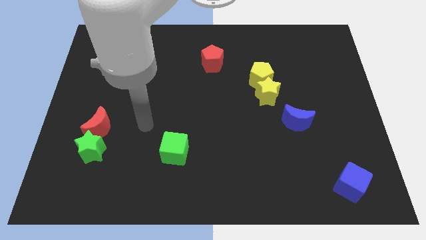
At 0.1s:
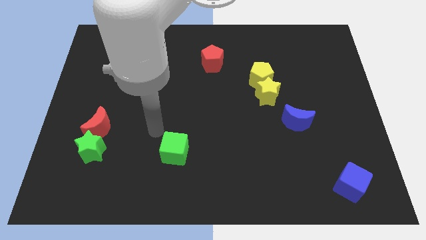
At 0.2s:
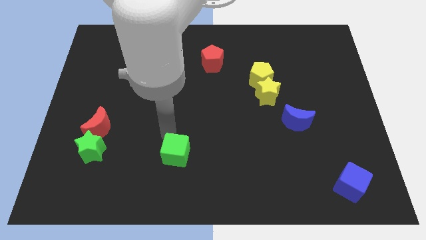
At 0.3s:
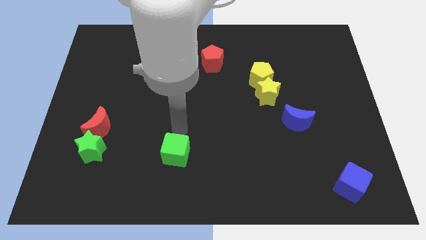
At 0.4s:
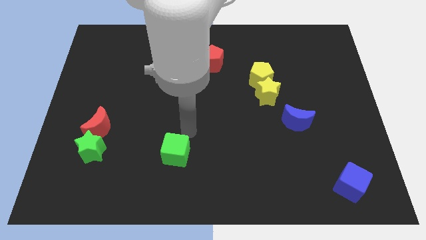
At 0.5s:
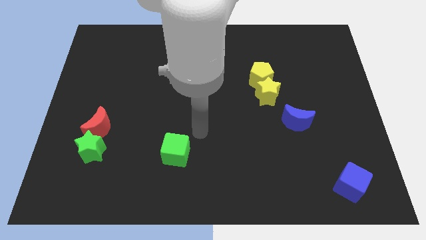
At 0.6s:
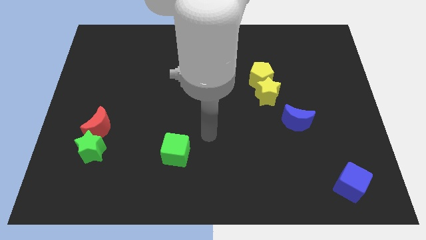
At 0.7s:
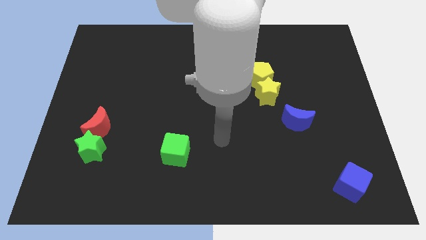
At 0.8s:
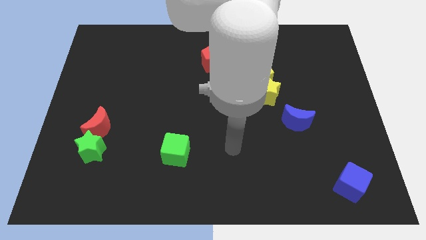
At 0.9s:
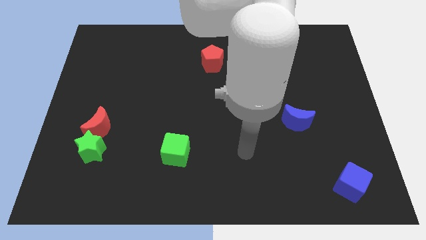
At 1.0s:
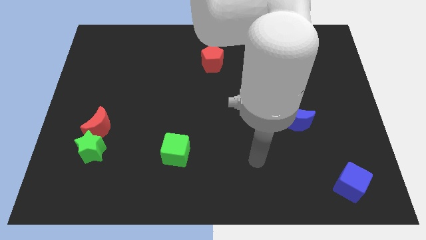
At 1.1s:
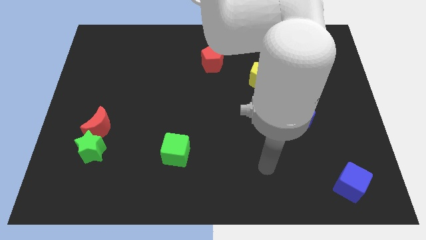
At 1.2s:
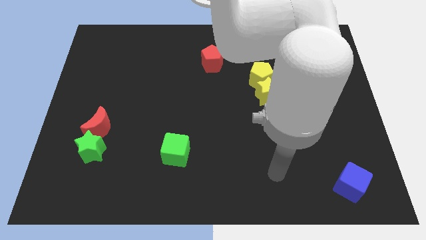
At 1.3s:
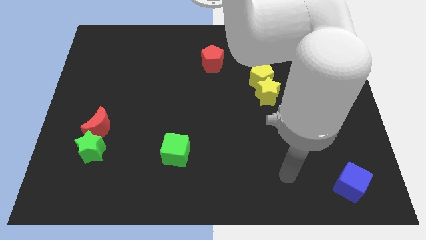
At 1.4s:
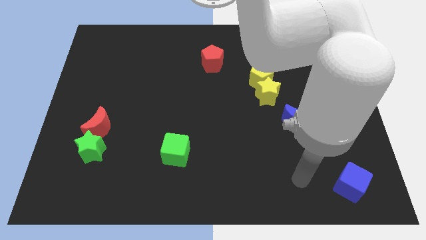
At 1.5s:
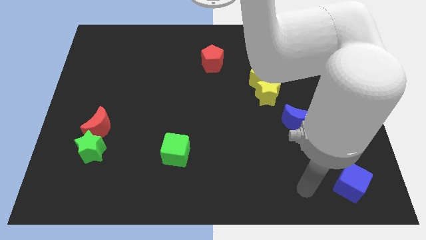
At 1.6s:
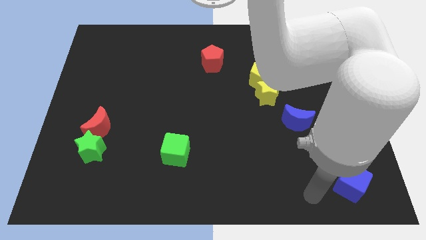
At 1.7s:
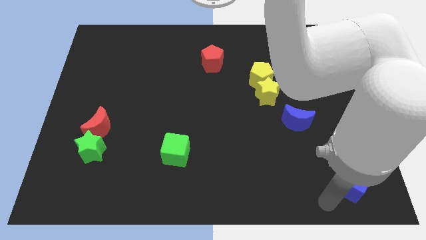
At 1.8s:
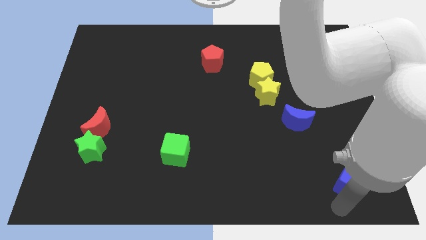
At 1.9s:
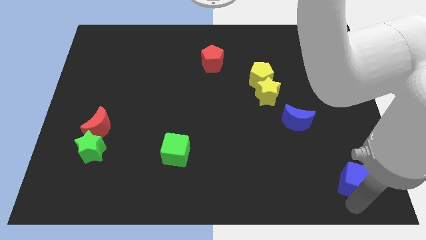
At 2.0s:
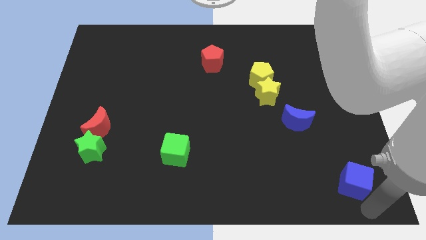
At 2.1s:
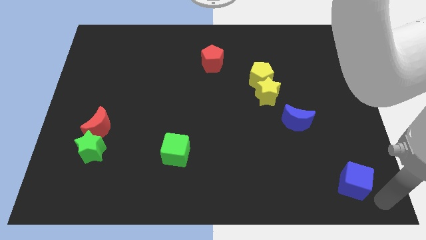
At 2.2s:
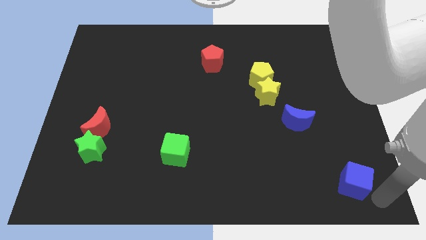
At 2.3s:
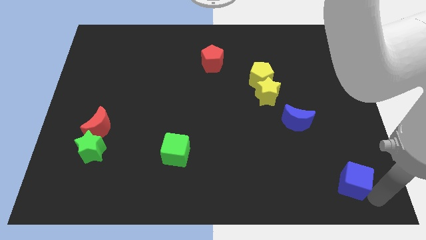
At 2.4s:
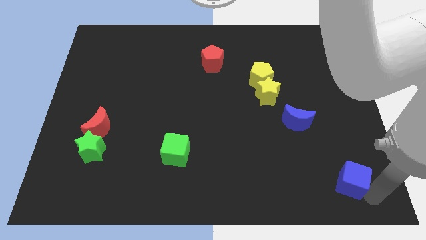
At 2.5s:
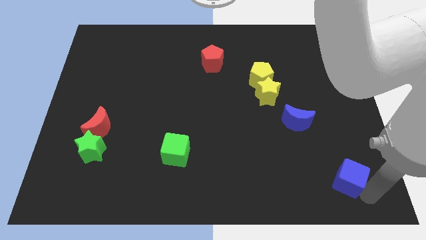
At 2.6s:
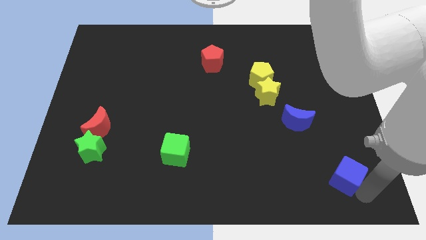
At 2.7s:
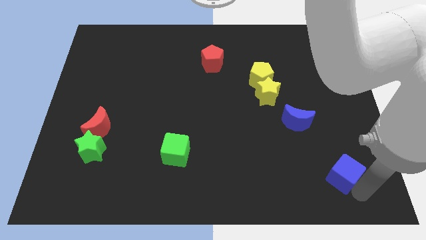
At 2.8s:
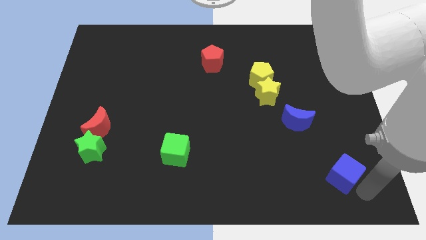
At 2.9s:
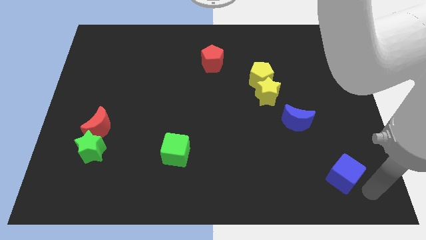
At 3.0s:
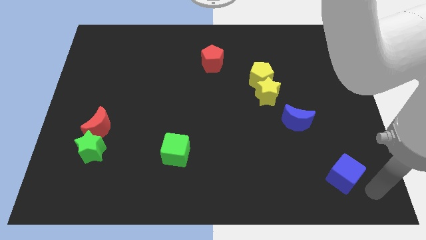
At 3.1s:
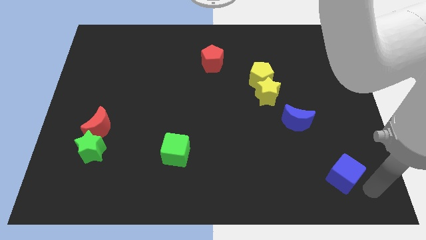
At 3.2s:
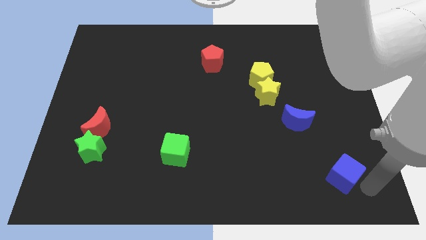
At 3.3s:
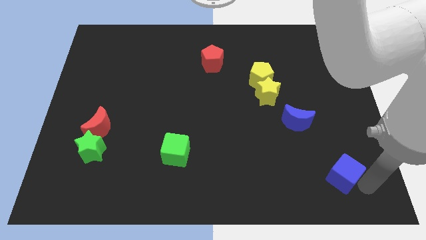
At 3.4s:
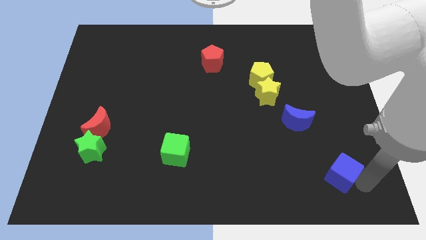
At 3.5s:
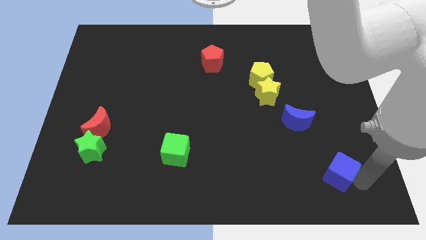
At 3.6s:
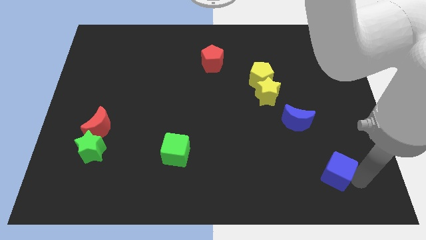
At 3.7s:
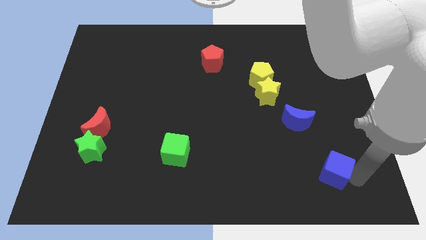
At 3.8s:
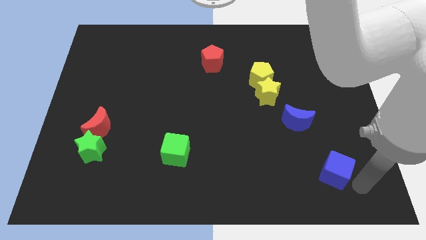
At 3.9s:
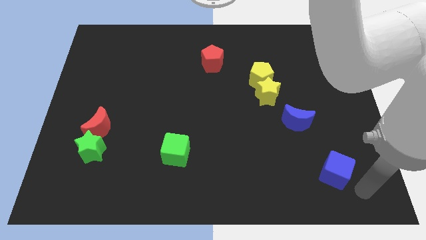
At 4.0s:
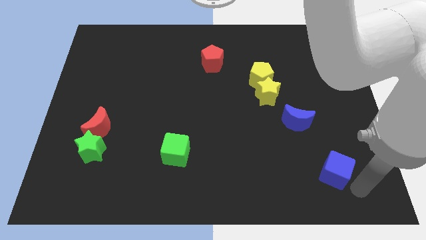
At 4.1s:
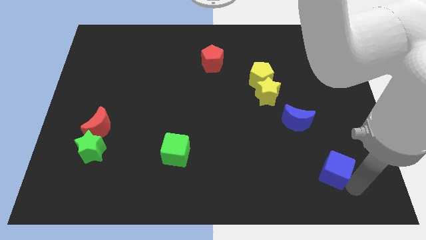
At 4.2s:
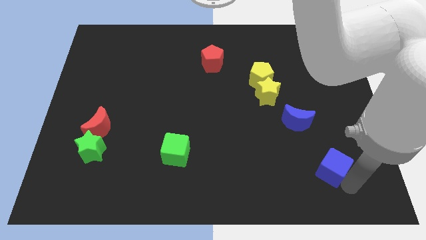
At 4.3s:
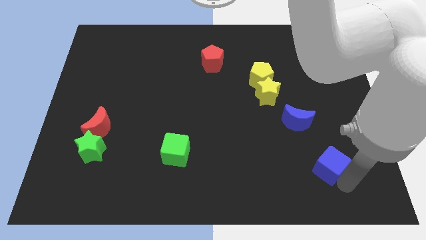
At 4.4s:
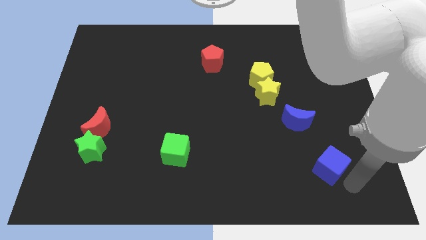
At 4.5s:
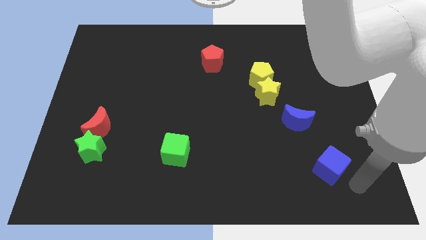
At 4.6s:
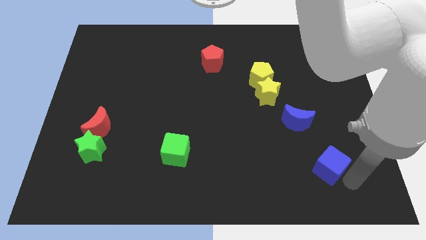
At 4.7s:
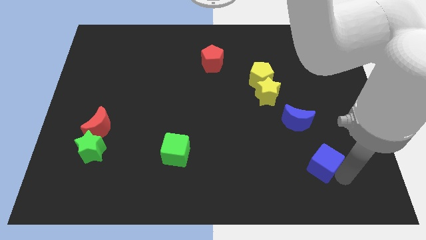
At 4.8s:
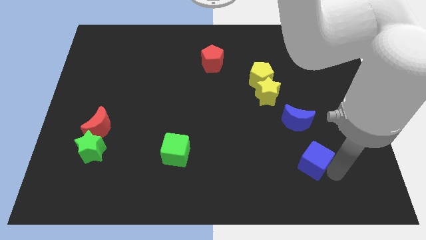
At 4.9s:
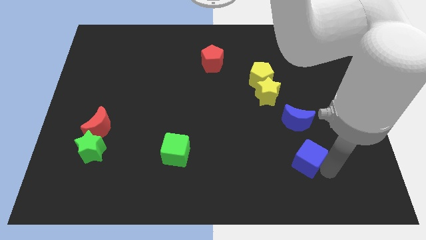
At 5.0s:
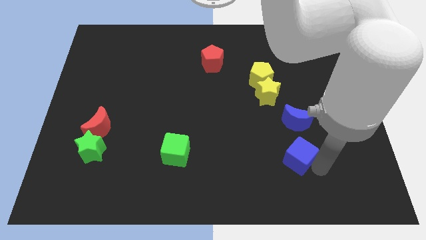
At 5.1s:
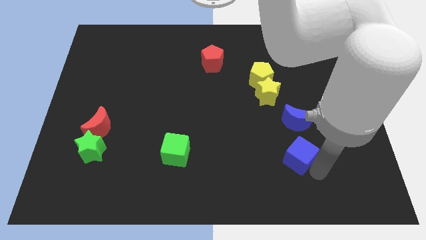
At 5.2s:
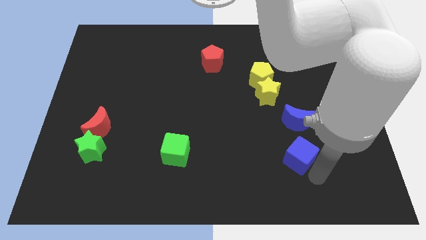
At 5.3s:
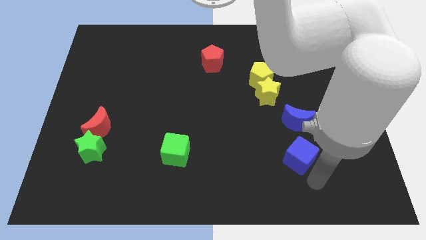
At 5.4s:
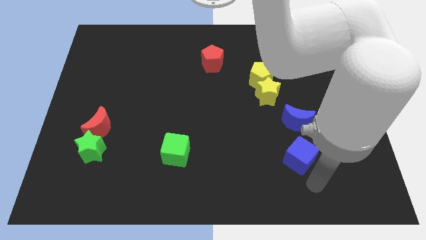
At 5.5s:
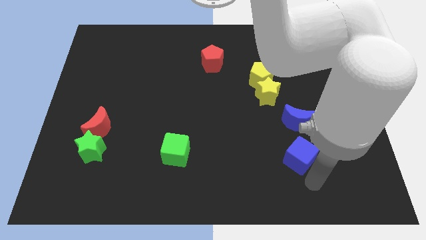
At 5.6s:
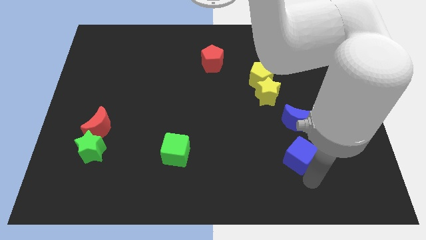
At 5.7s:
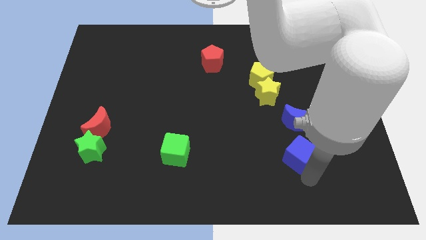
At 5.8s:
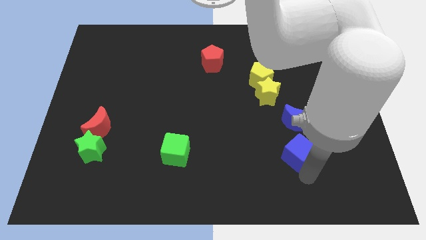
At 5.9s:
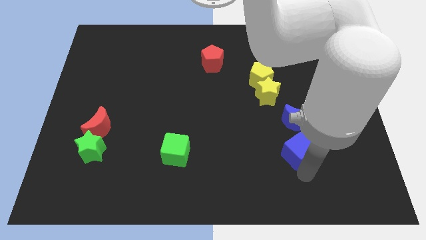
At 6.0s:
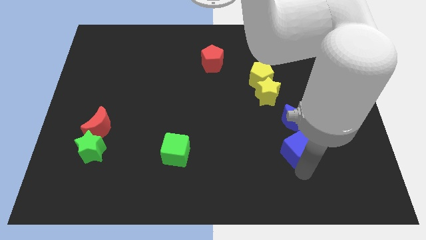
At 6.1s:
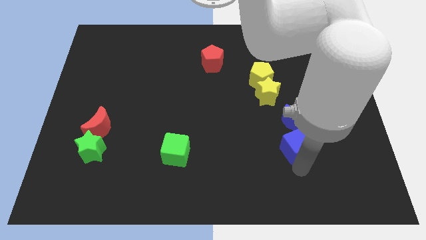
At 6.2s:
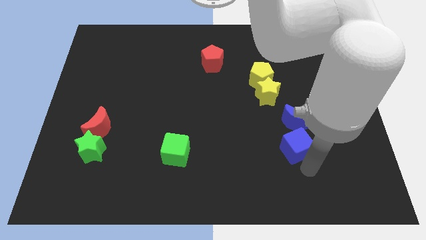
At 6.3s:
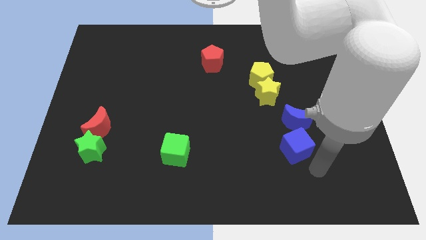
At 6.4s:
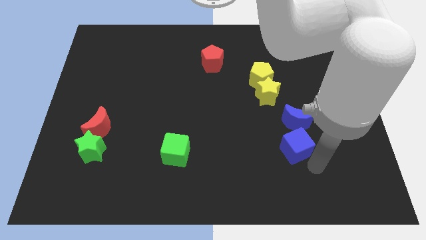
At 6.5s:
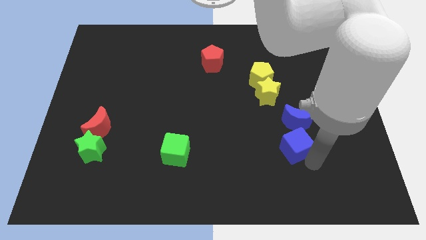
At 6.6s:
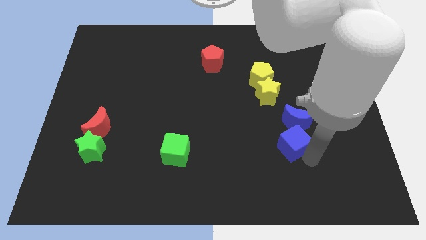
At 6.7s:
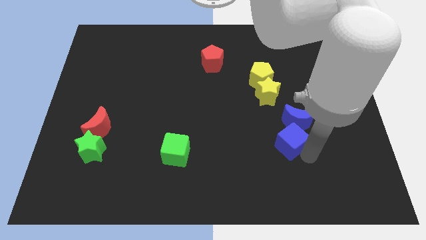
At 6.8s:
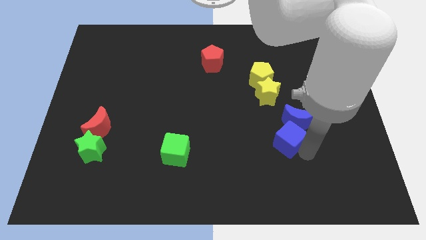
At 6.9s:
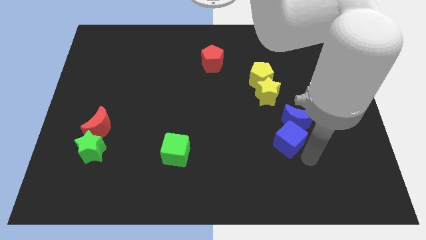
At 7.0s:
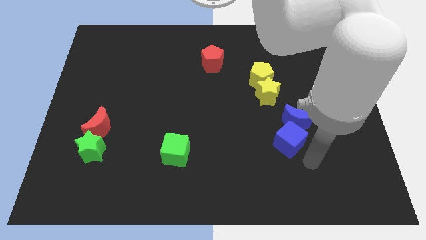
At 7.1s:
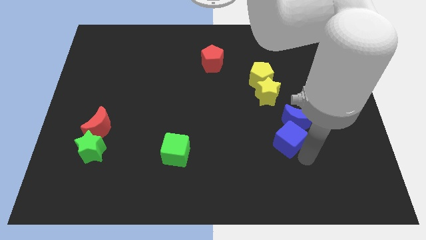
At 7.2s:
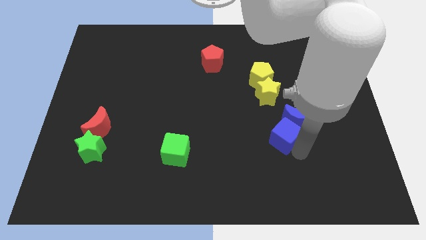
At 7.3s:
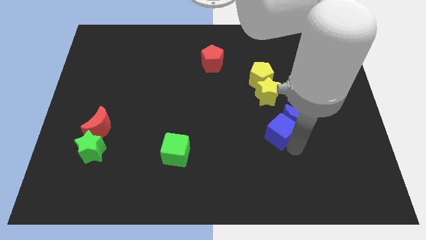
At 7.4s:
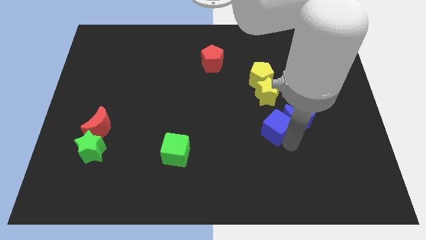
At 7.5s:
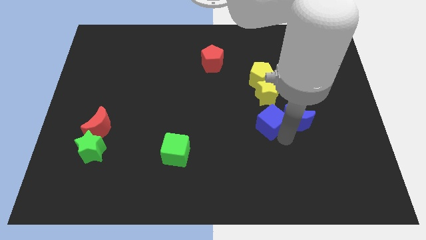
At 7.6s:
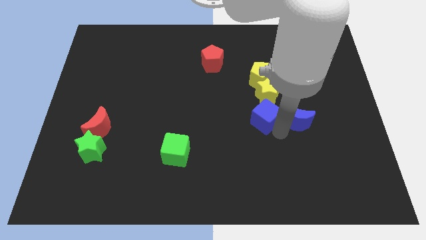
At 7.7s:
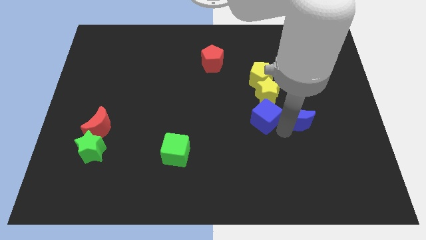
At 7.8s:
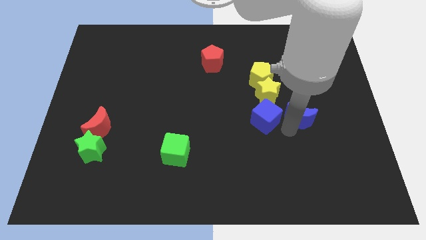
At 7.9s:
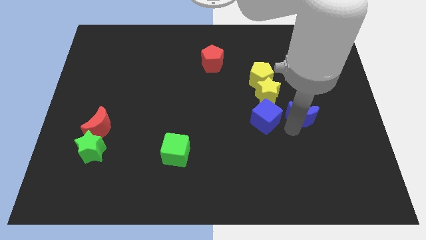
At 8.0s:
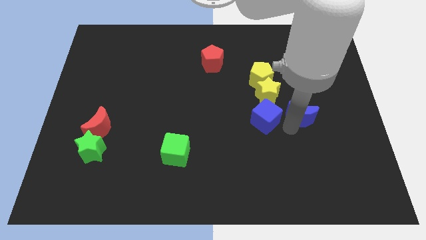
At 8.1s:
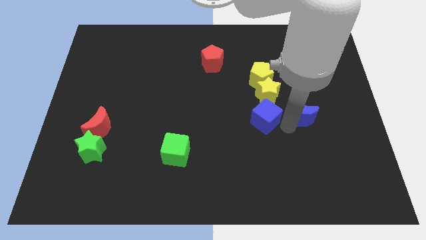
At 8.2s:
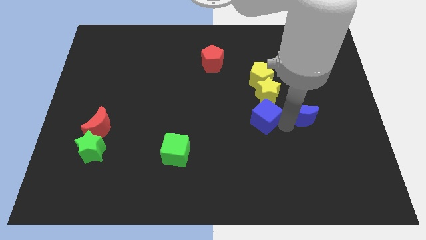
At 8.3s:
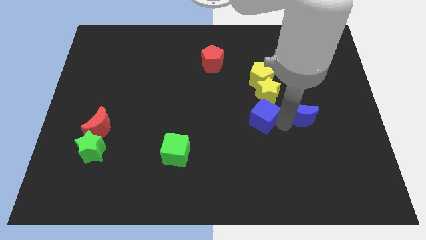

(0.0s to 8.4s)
push the blue cube to the middle
